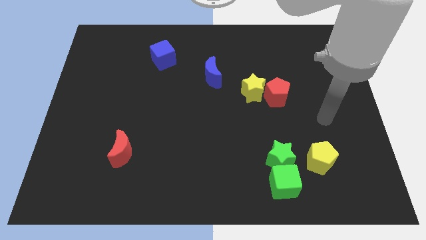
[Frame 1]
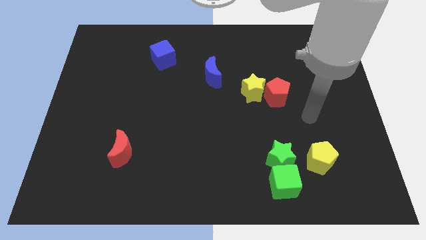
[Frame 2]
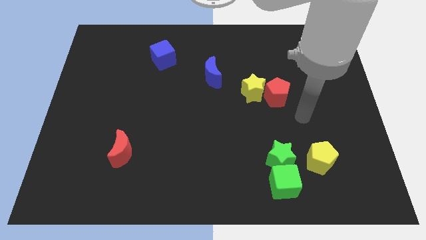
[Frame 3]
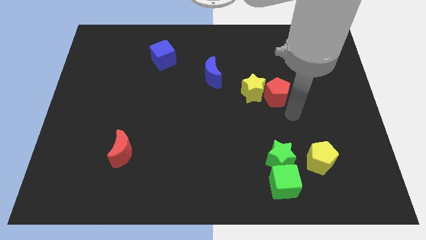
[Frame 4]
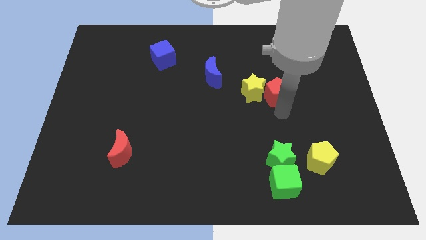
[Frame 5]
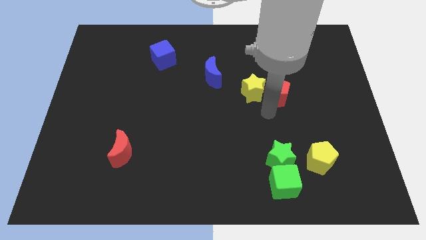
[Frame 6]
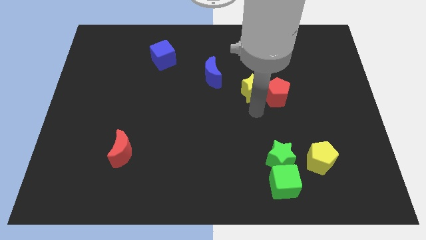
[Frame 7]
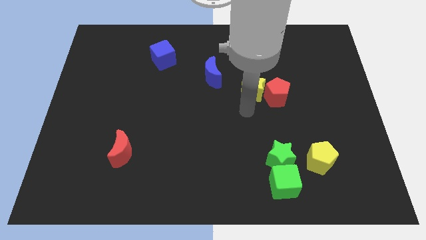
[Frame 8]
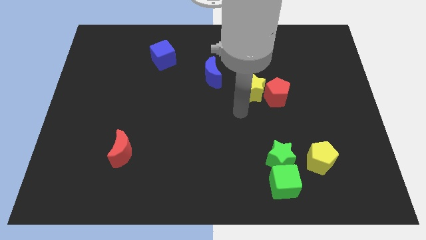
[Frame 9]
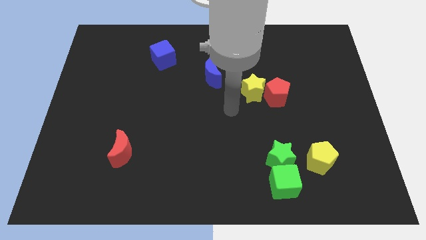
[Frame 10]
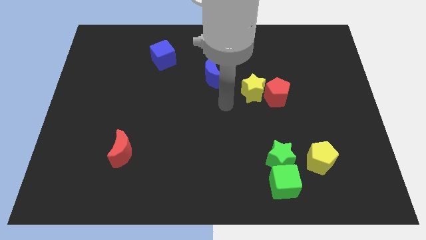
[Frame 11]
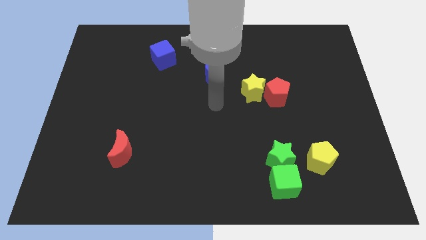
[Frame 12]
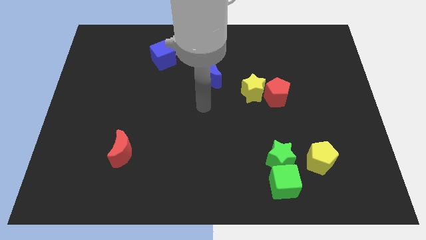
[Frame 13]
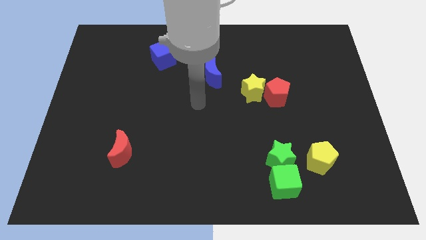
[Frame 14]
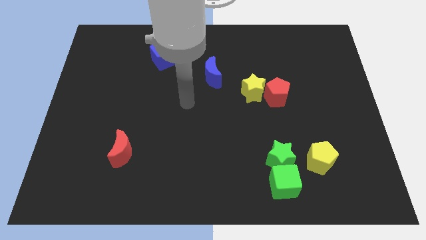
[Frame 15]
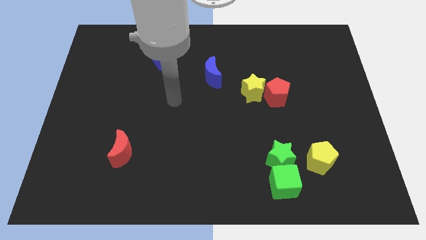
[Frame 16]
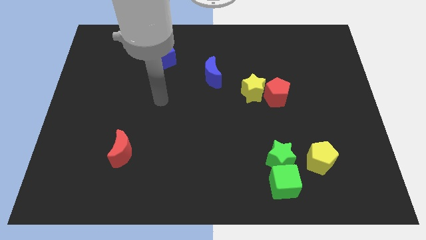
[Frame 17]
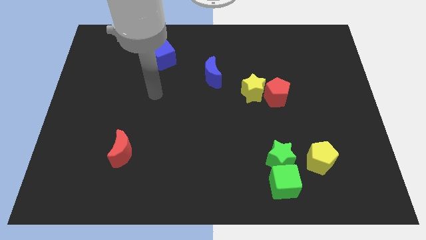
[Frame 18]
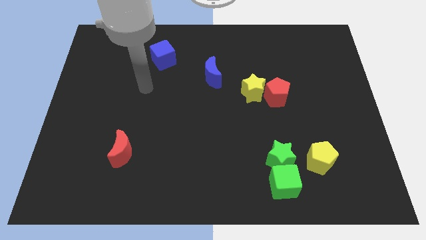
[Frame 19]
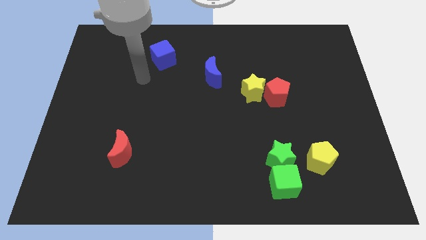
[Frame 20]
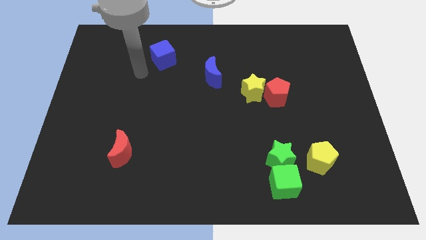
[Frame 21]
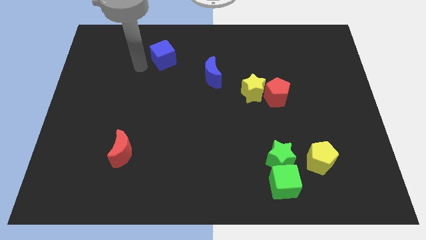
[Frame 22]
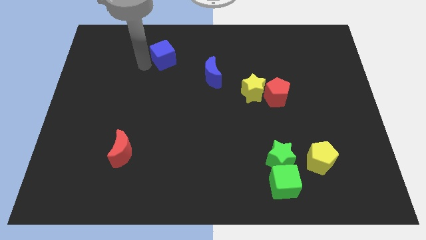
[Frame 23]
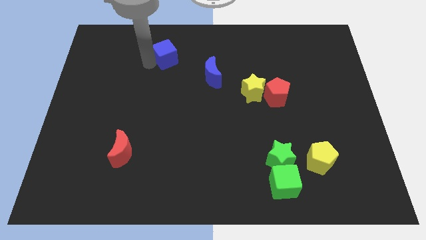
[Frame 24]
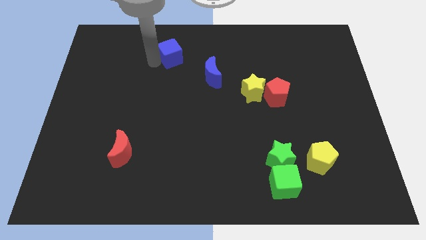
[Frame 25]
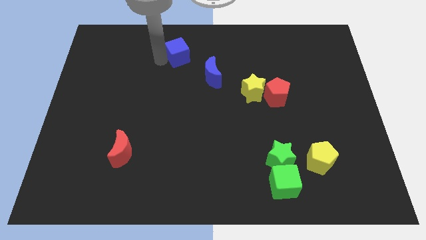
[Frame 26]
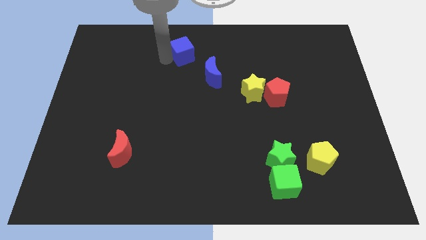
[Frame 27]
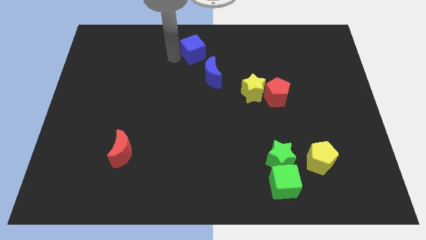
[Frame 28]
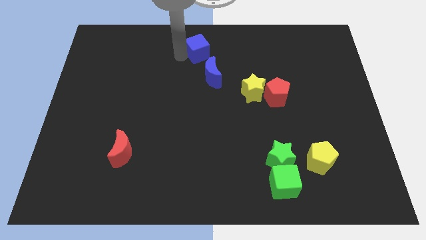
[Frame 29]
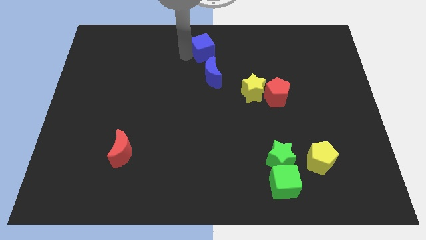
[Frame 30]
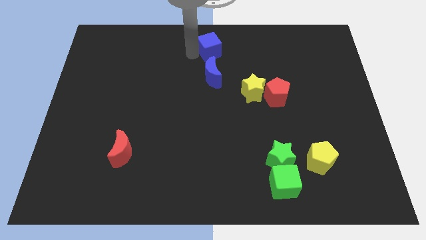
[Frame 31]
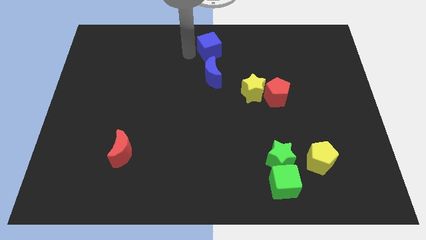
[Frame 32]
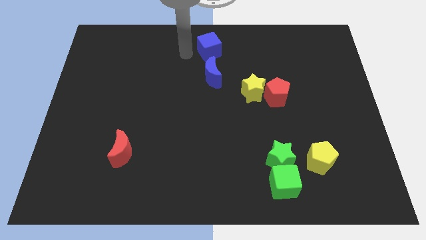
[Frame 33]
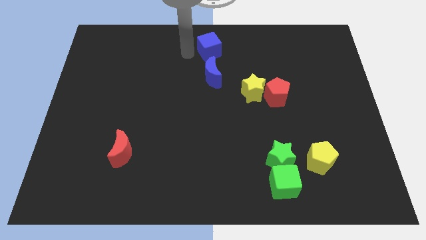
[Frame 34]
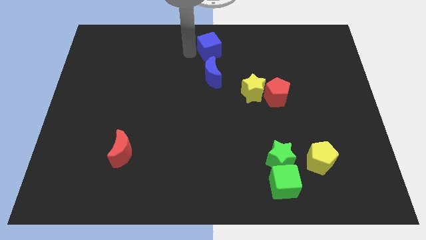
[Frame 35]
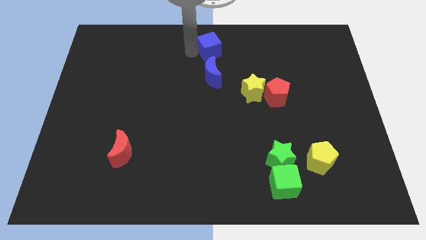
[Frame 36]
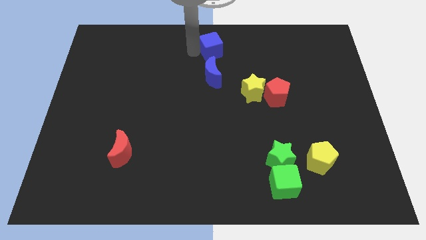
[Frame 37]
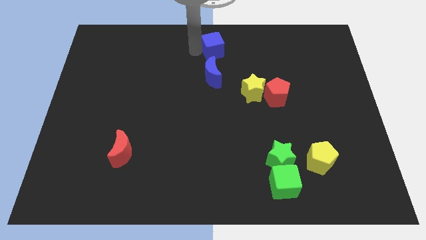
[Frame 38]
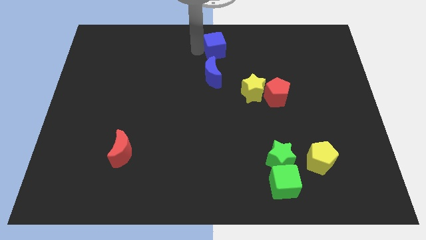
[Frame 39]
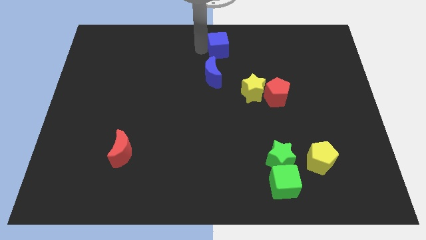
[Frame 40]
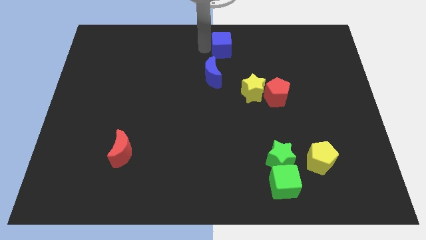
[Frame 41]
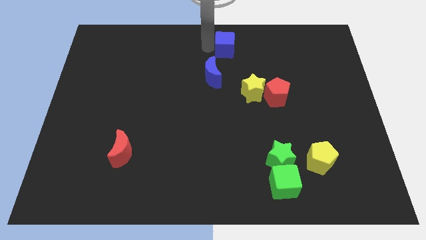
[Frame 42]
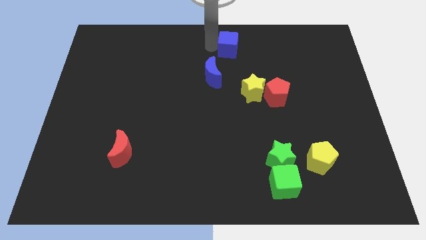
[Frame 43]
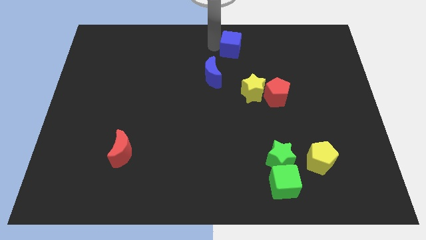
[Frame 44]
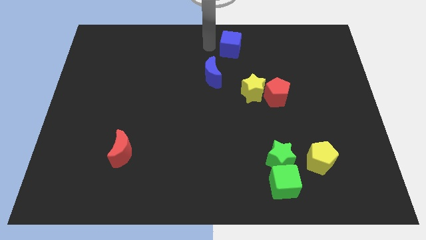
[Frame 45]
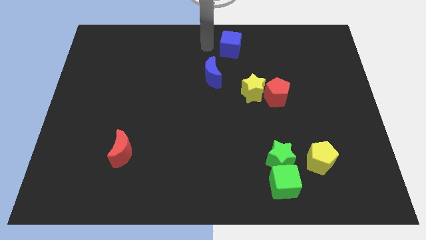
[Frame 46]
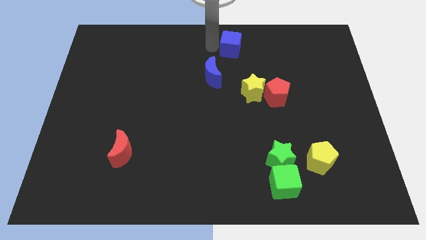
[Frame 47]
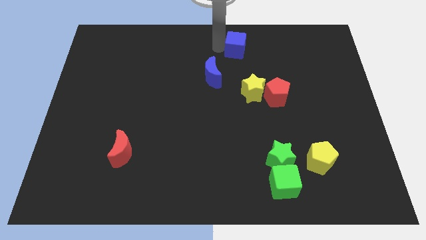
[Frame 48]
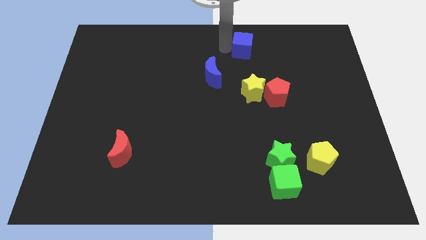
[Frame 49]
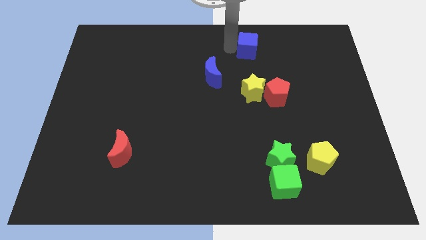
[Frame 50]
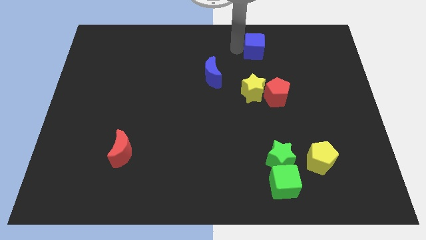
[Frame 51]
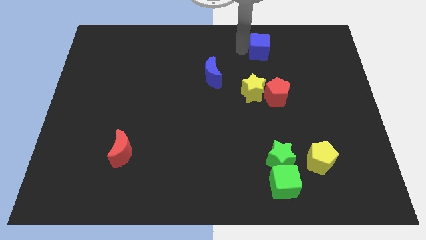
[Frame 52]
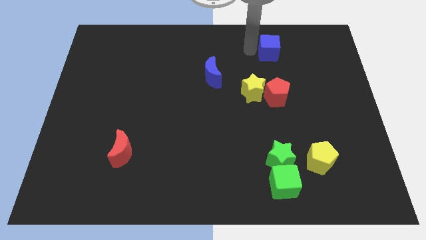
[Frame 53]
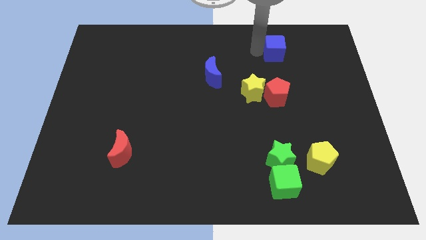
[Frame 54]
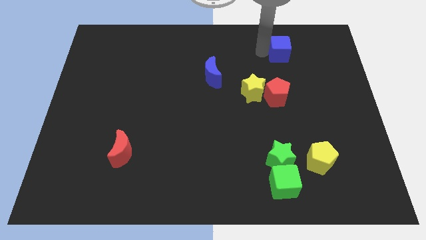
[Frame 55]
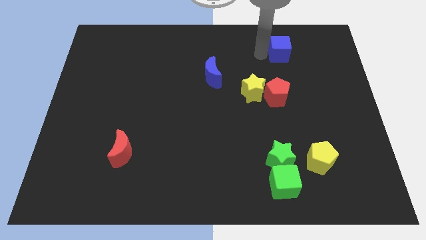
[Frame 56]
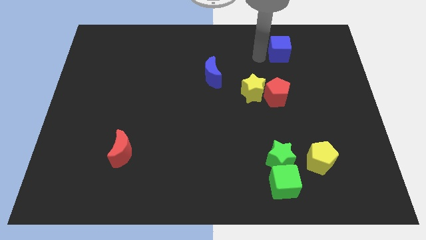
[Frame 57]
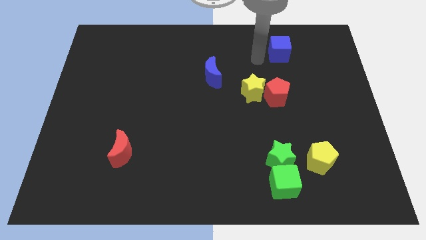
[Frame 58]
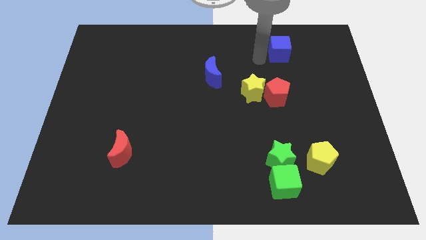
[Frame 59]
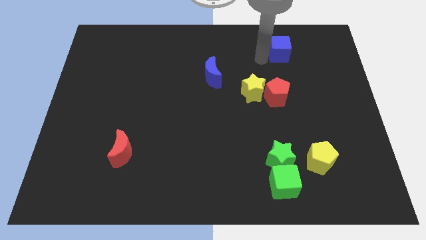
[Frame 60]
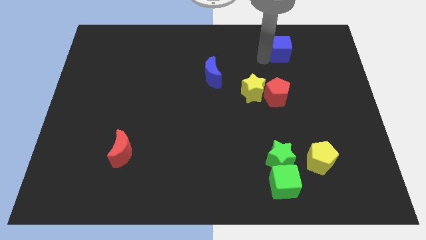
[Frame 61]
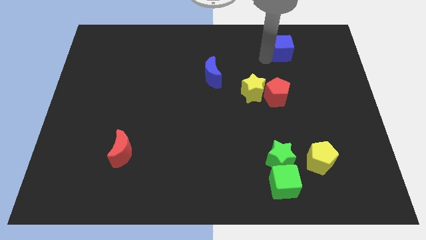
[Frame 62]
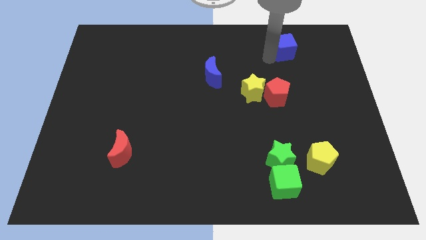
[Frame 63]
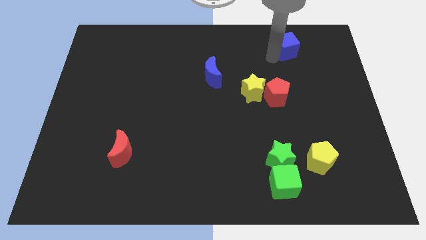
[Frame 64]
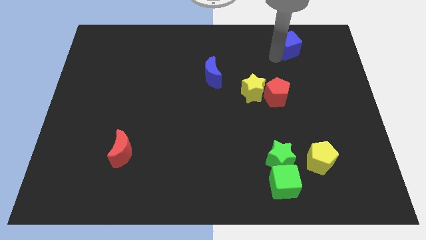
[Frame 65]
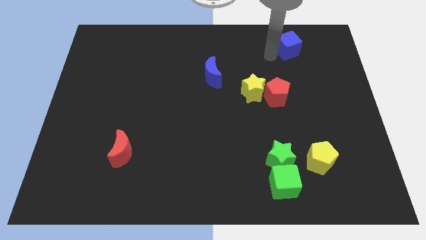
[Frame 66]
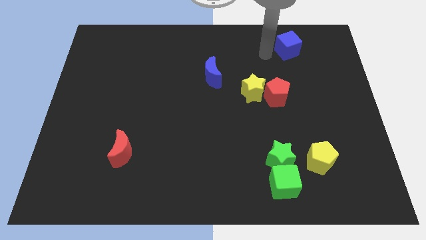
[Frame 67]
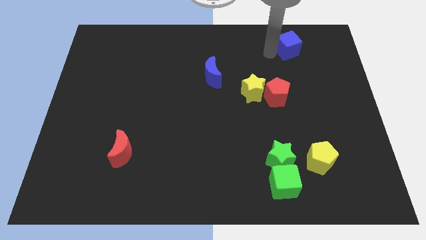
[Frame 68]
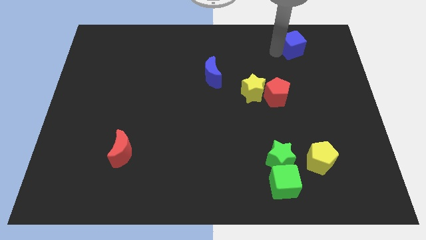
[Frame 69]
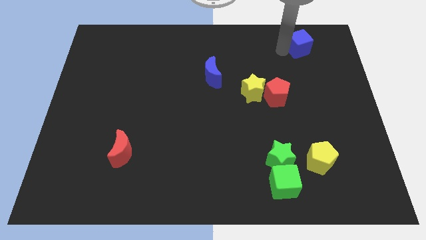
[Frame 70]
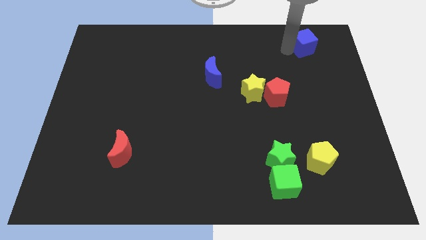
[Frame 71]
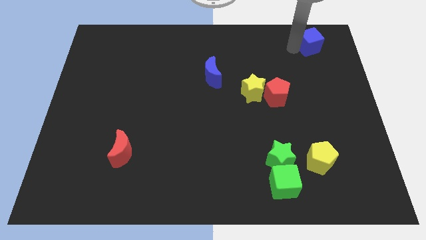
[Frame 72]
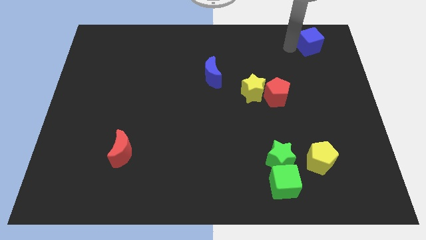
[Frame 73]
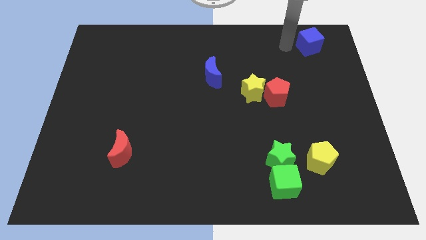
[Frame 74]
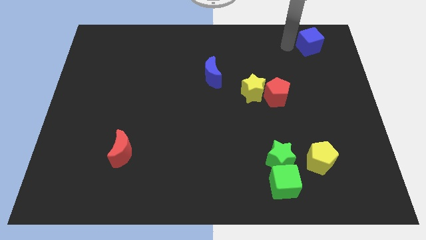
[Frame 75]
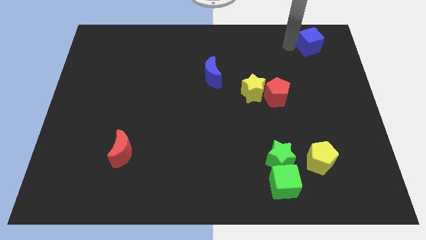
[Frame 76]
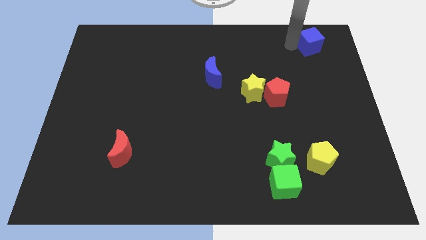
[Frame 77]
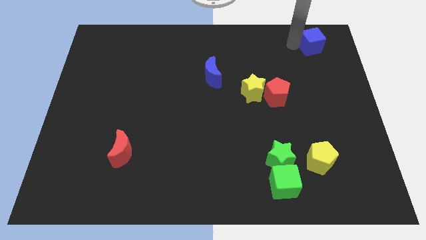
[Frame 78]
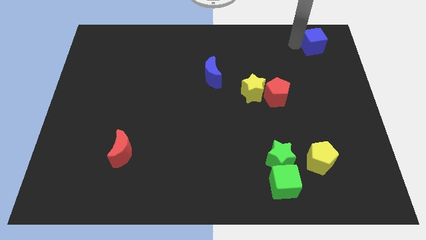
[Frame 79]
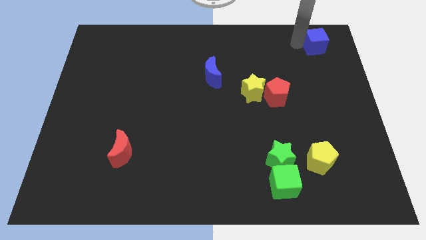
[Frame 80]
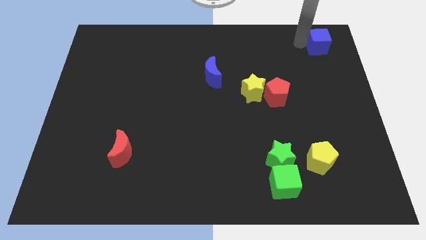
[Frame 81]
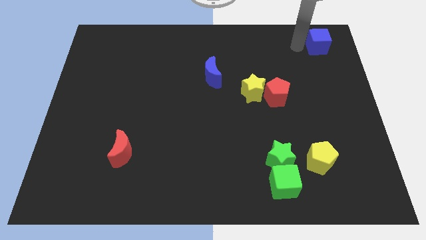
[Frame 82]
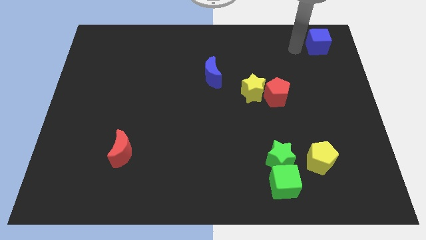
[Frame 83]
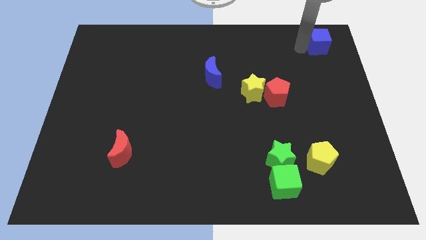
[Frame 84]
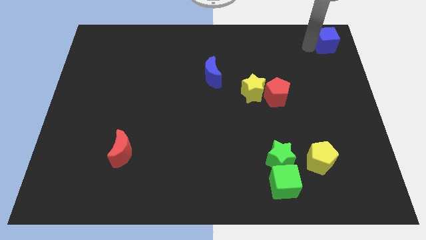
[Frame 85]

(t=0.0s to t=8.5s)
put the blue cube to the top right
